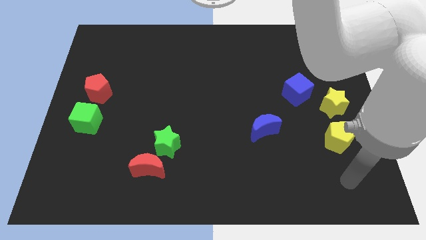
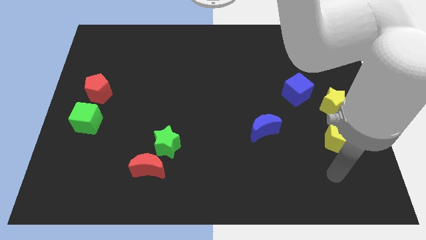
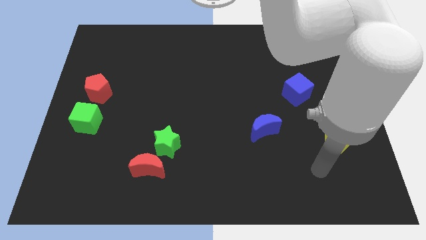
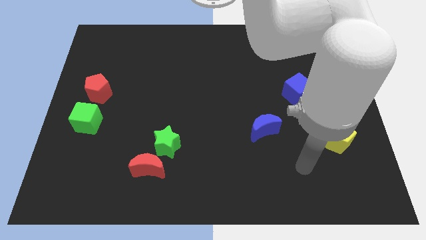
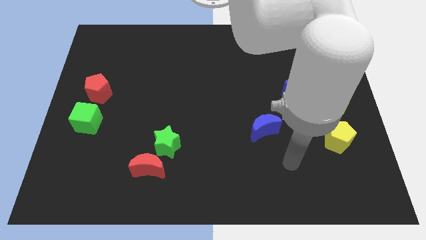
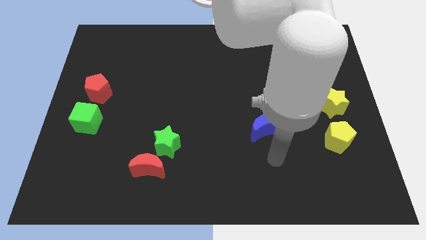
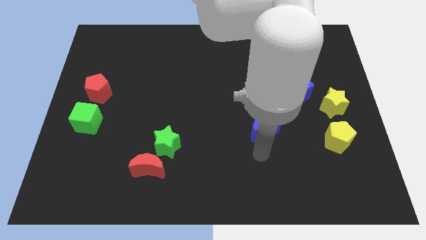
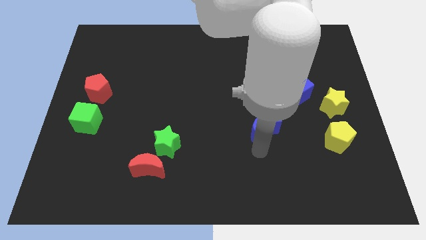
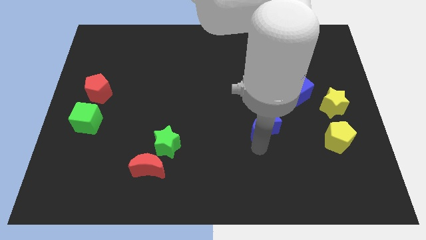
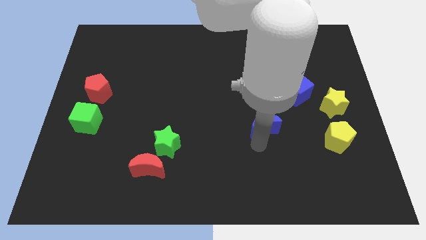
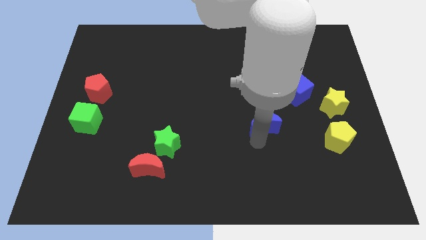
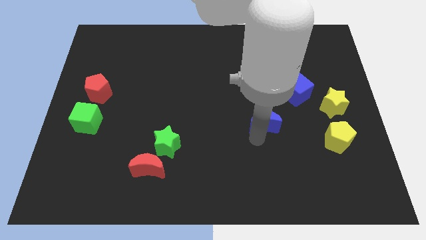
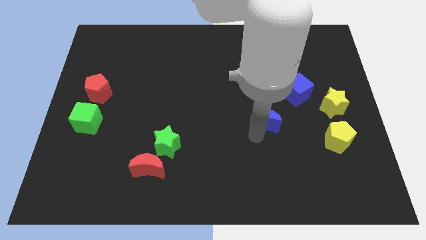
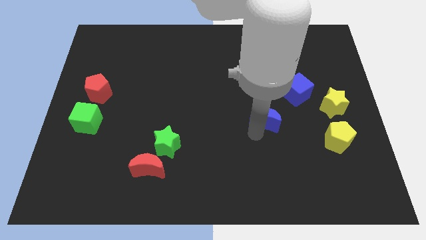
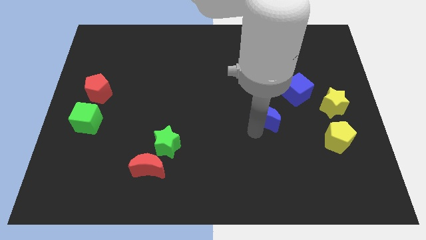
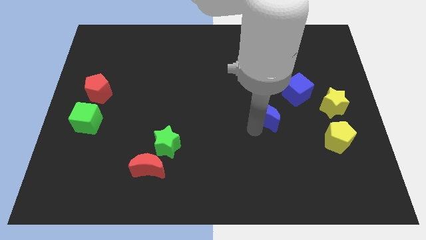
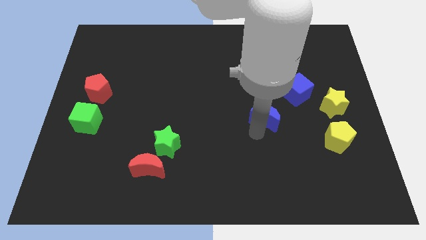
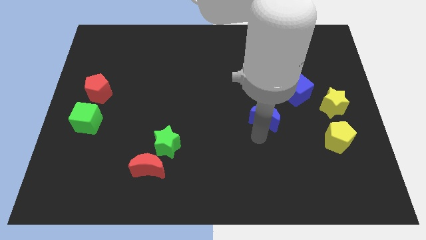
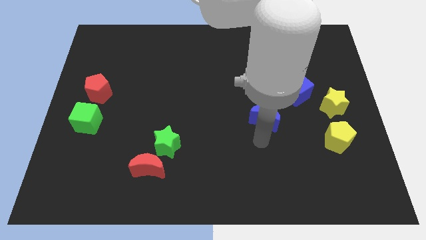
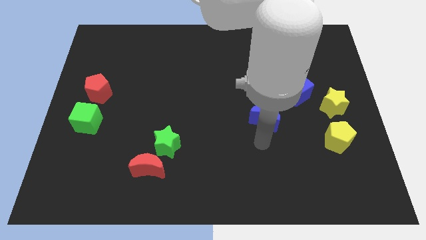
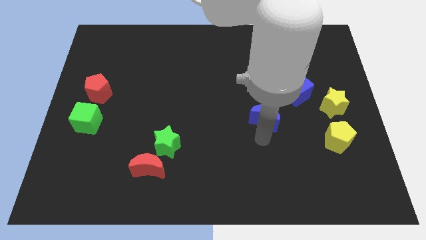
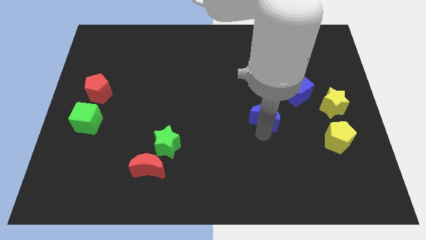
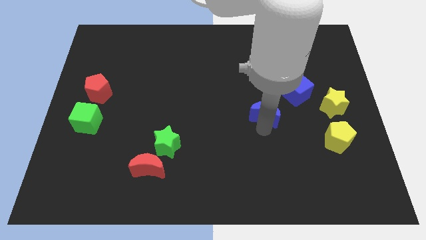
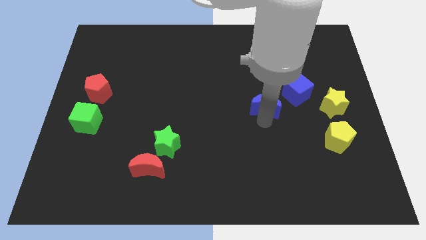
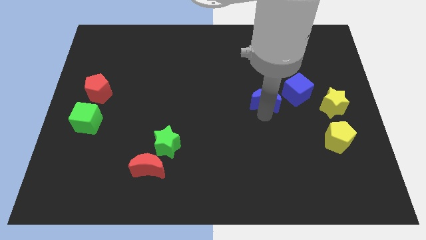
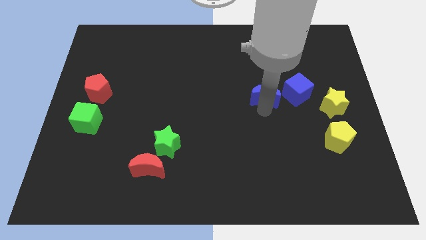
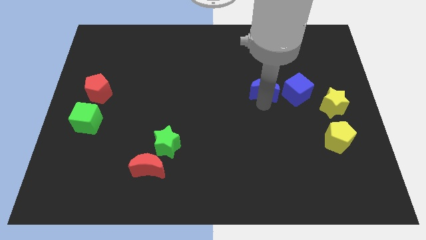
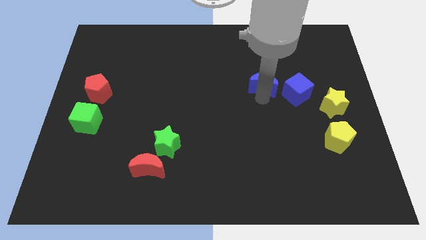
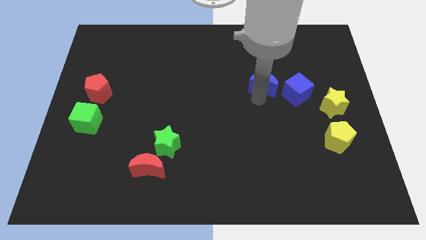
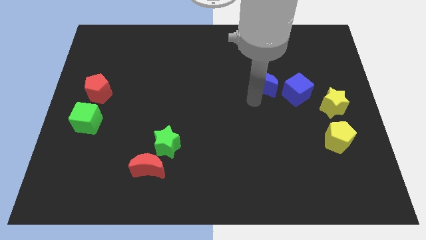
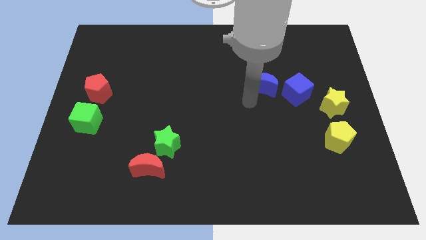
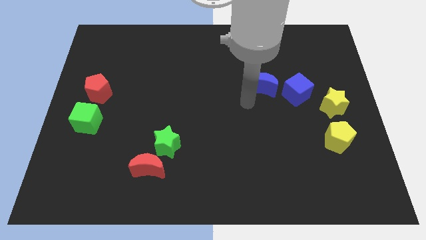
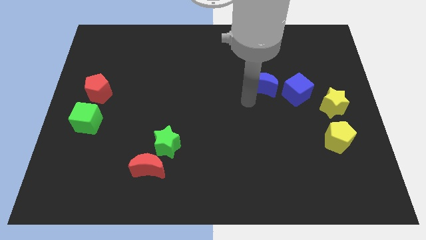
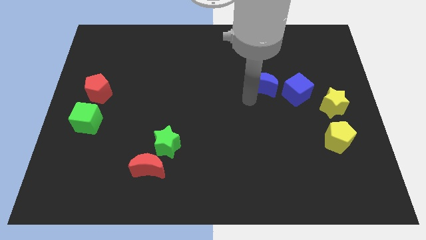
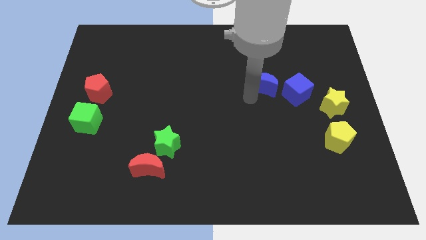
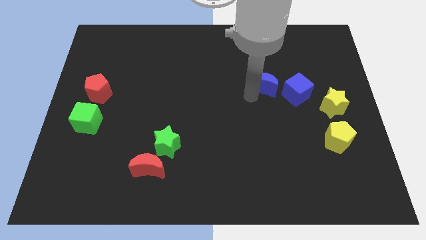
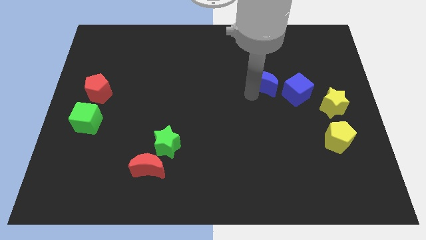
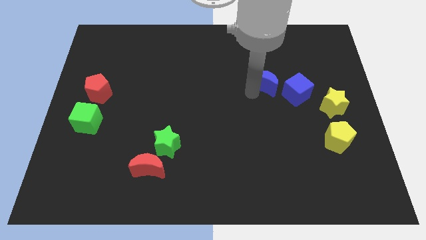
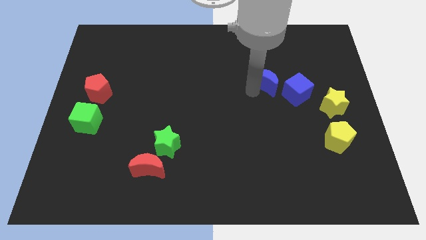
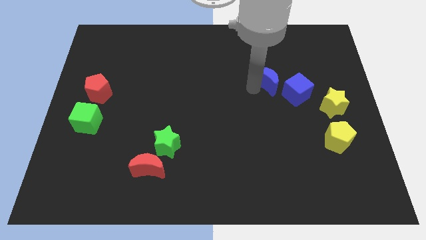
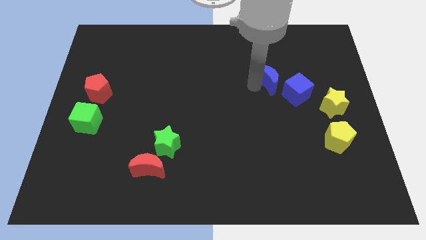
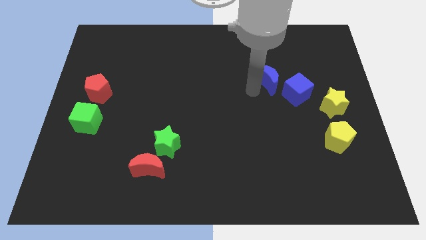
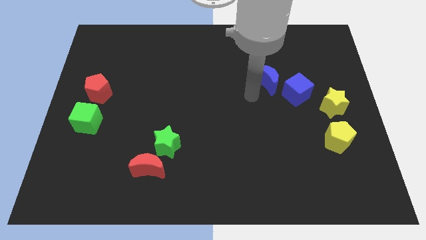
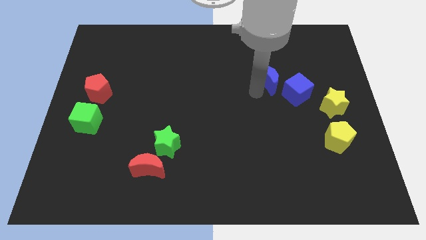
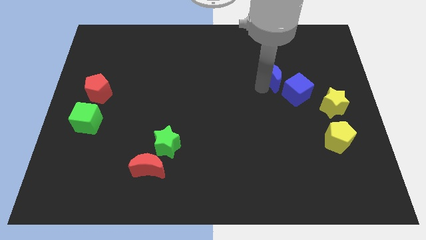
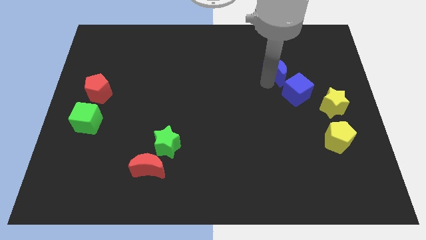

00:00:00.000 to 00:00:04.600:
slide the blue moon to the top of the blue cube

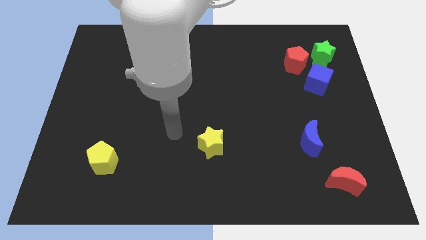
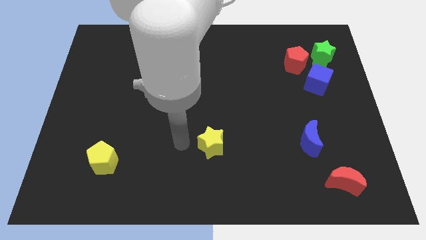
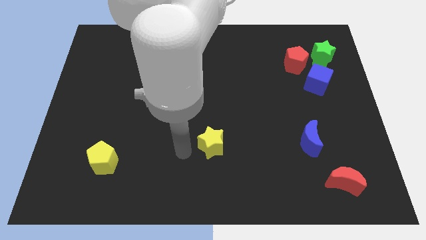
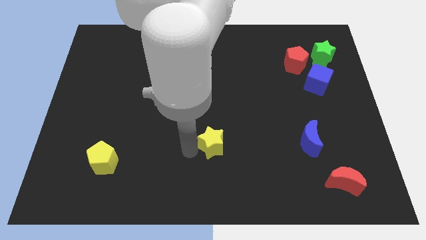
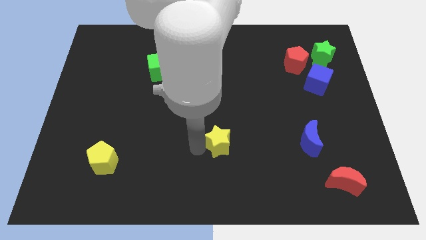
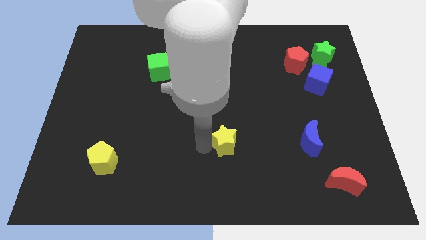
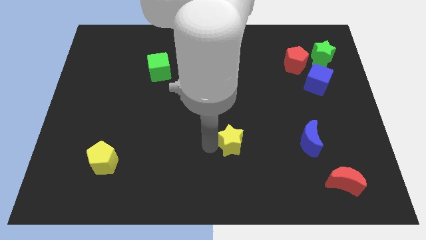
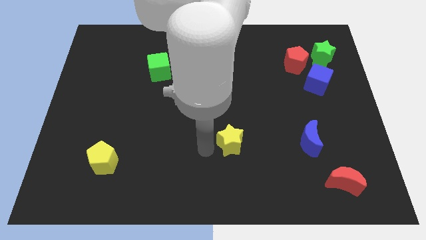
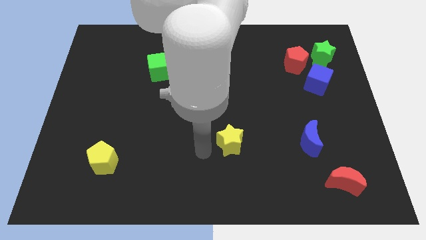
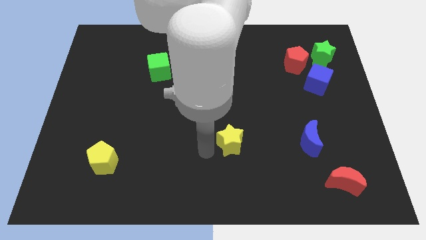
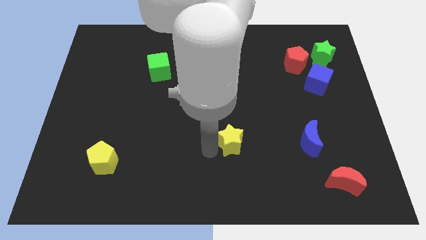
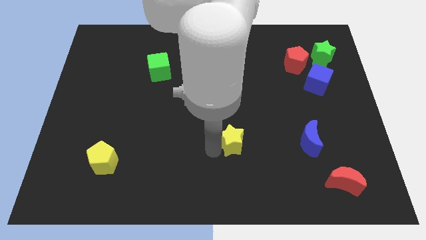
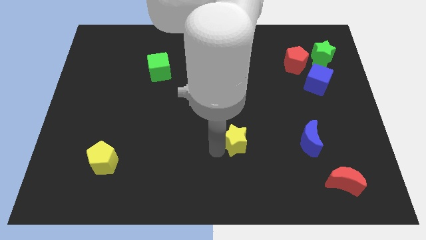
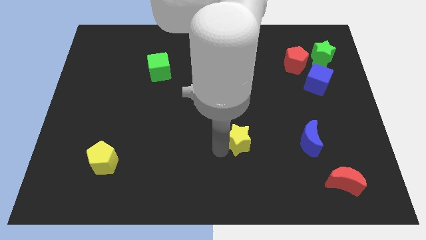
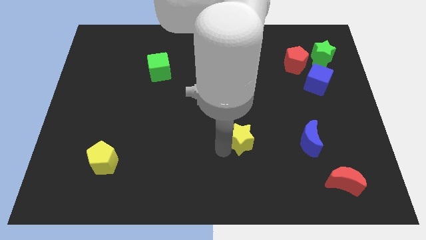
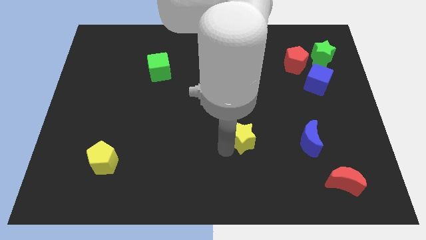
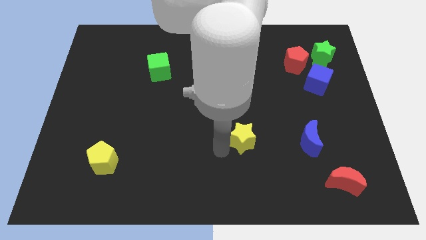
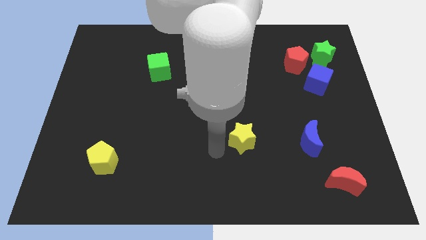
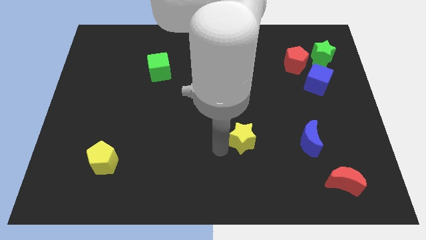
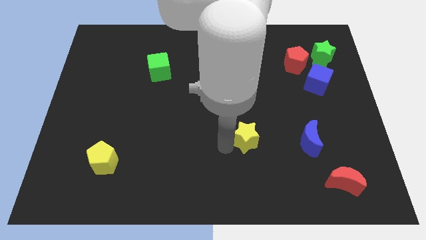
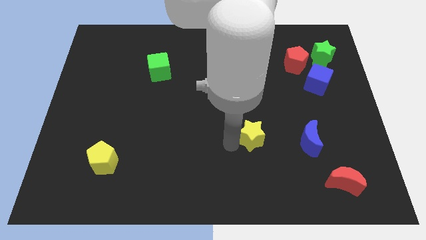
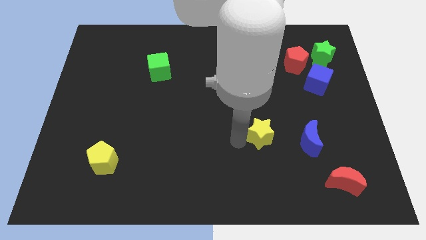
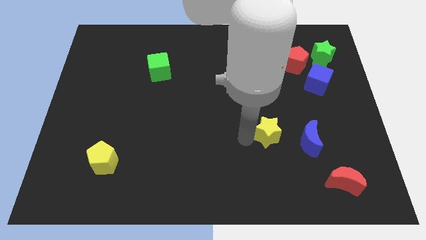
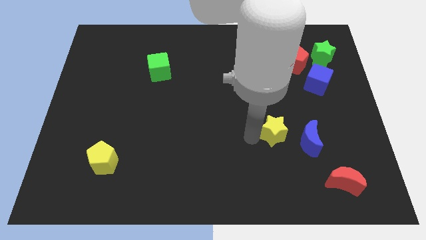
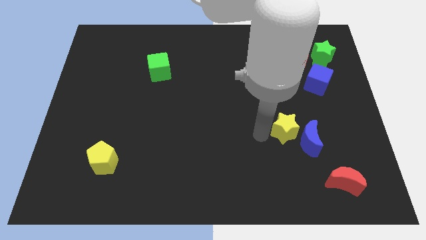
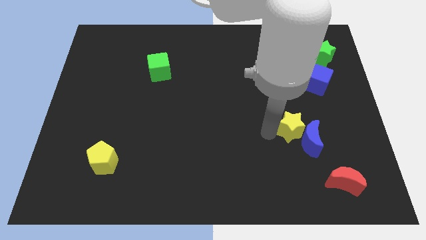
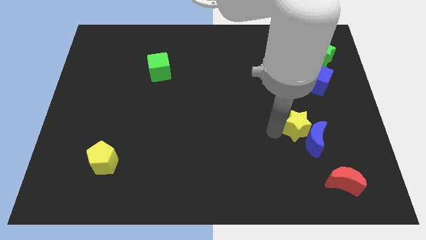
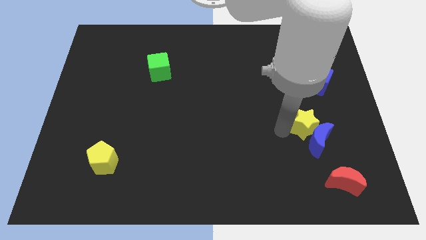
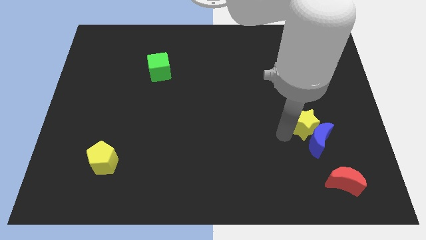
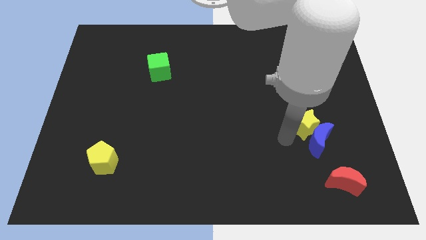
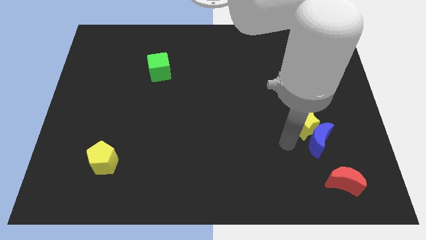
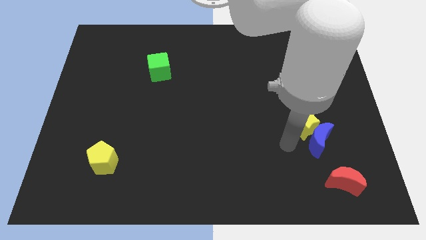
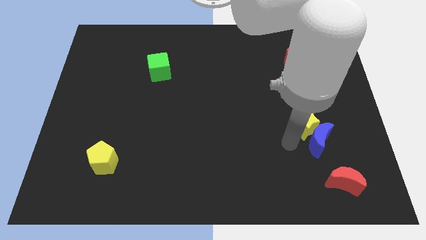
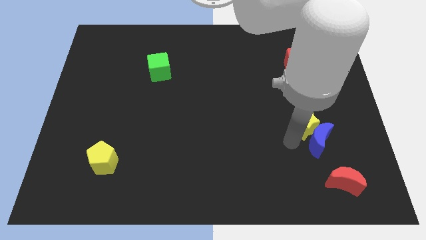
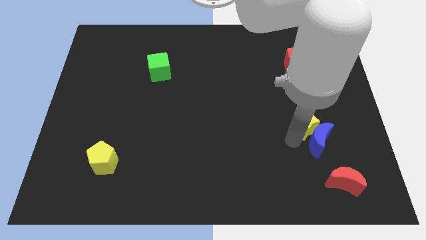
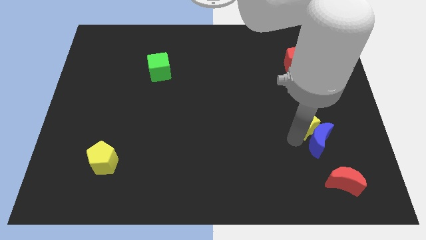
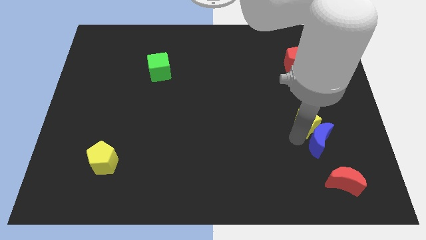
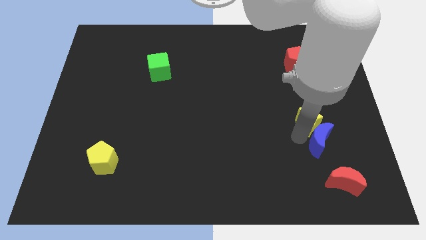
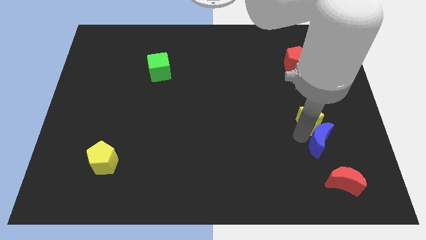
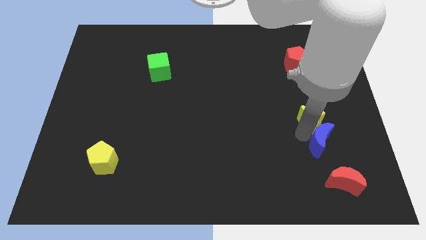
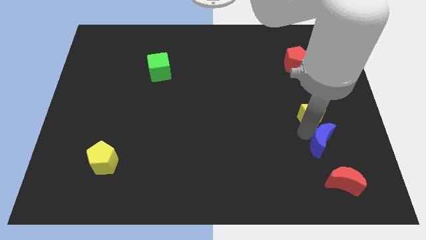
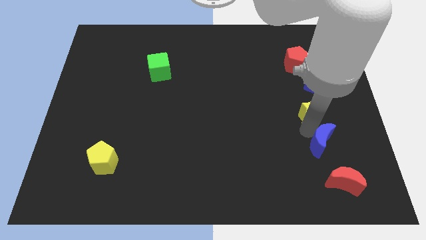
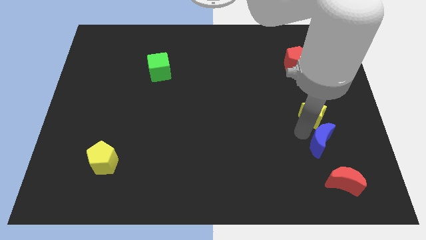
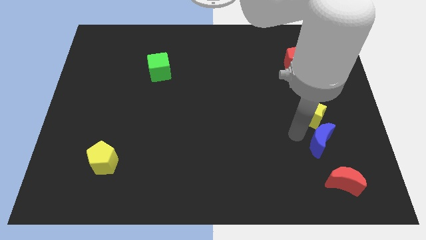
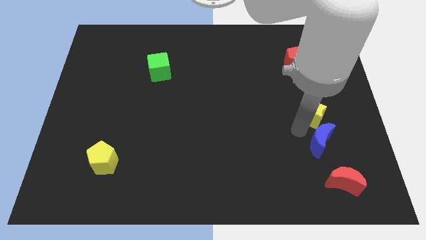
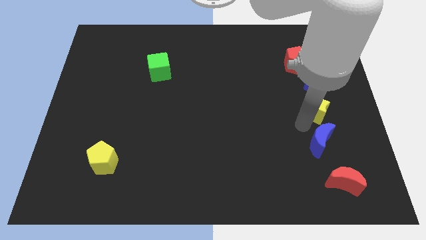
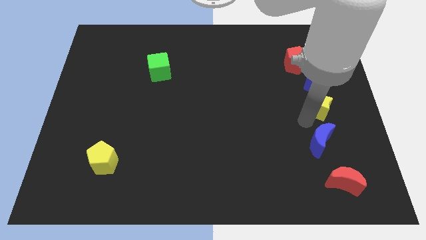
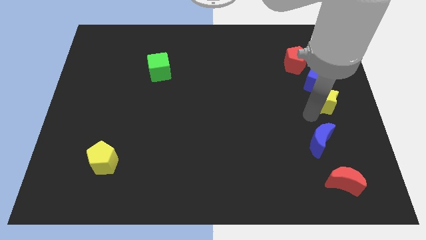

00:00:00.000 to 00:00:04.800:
put the yellow star below the green star
